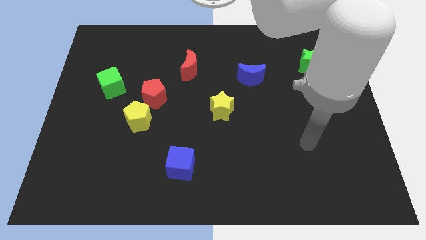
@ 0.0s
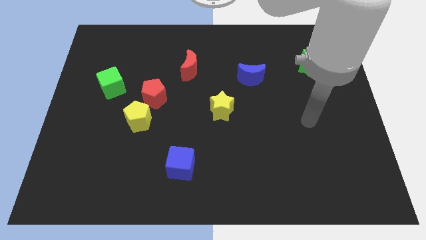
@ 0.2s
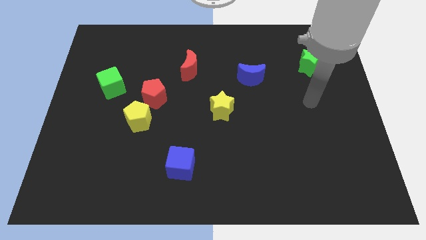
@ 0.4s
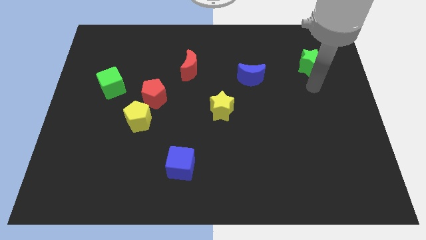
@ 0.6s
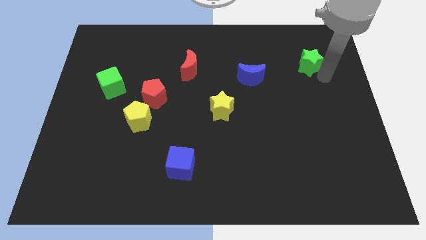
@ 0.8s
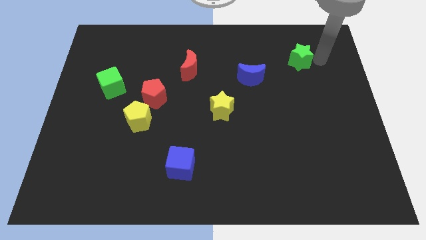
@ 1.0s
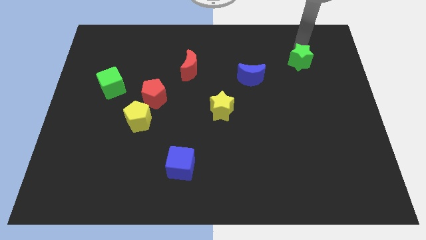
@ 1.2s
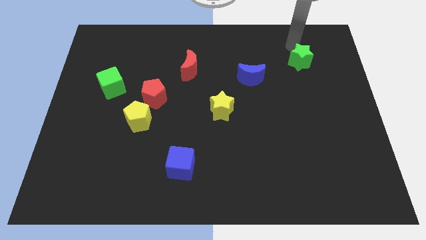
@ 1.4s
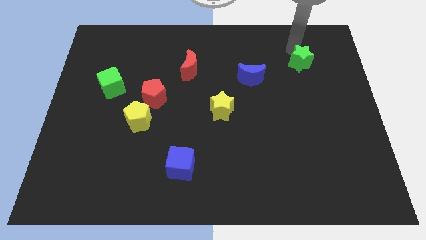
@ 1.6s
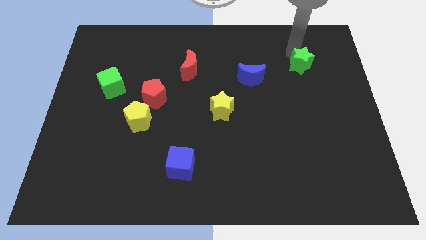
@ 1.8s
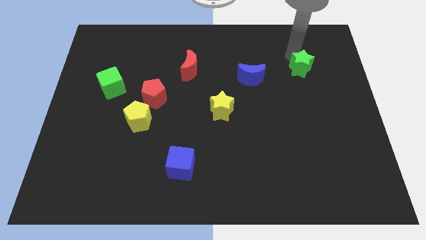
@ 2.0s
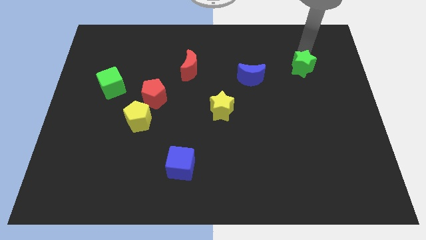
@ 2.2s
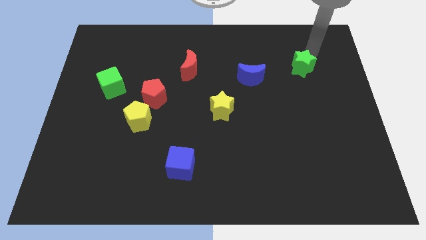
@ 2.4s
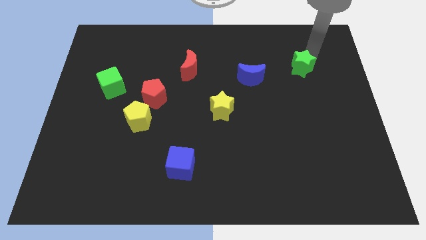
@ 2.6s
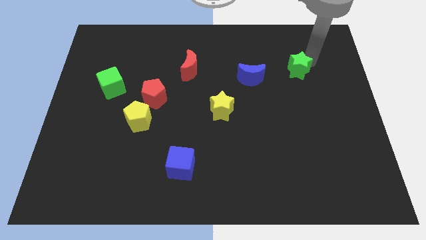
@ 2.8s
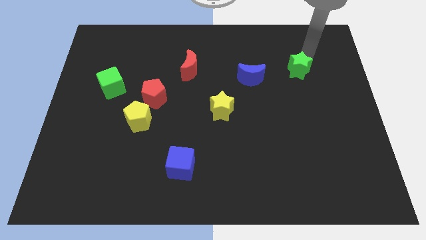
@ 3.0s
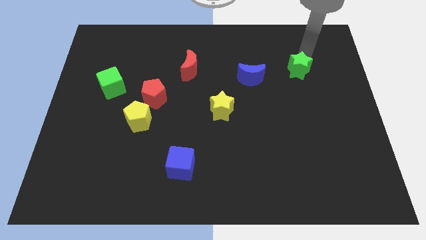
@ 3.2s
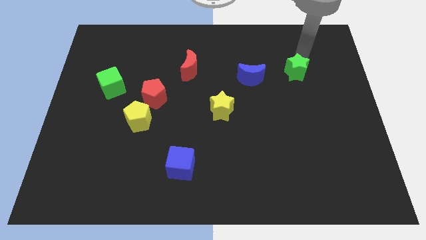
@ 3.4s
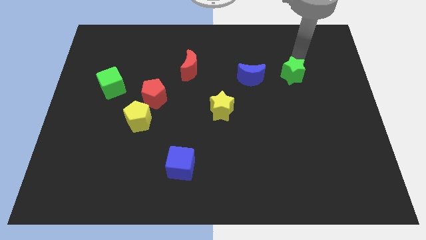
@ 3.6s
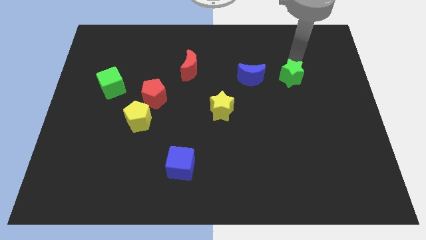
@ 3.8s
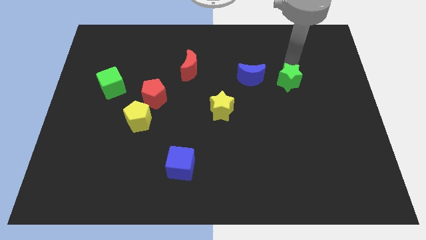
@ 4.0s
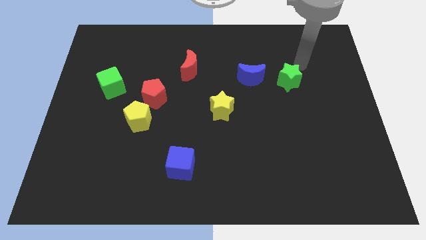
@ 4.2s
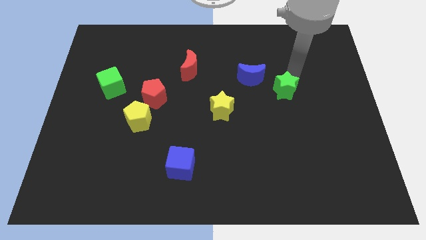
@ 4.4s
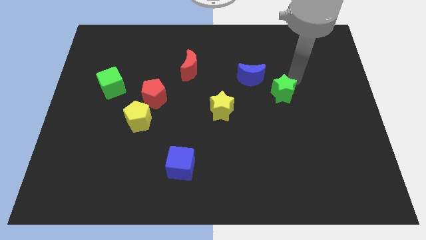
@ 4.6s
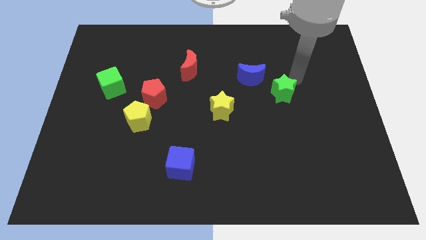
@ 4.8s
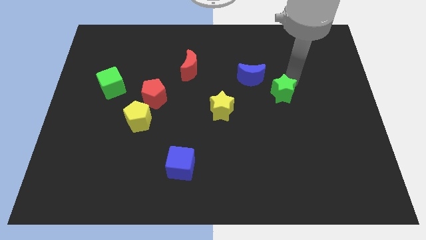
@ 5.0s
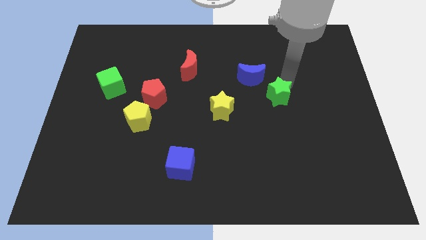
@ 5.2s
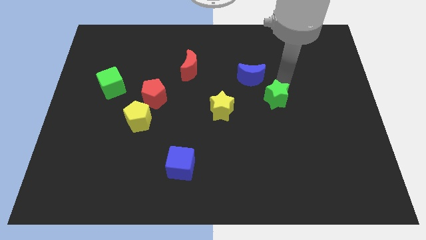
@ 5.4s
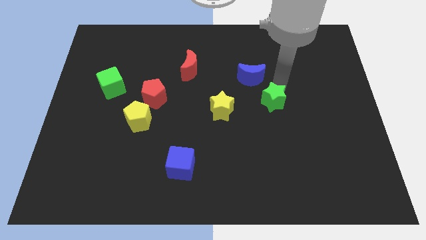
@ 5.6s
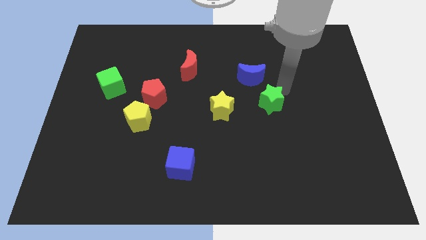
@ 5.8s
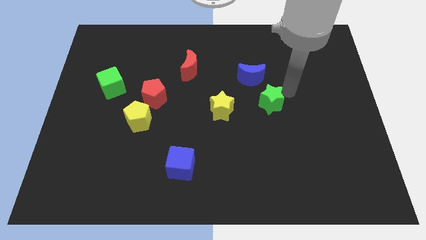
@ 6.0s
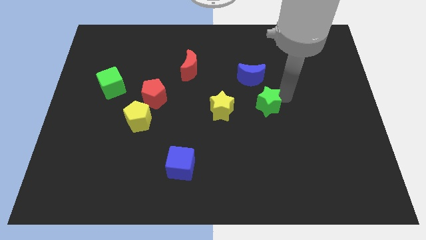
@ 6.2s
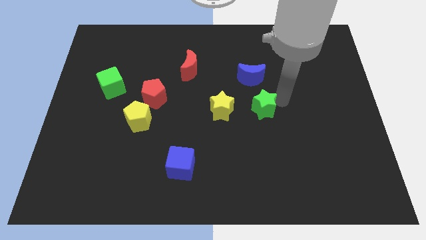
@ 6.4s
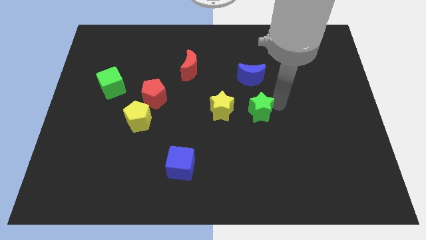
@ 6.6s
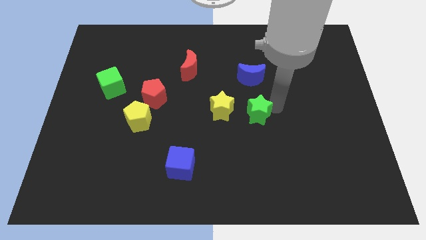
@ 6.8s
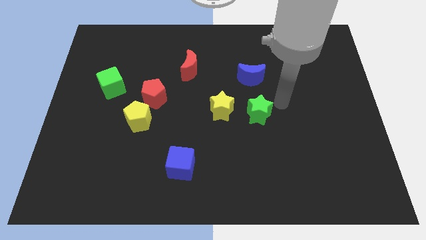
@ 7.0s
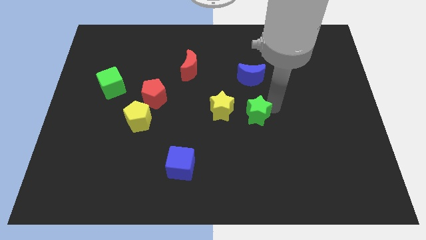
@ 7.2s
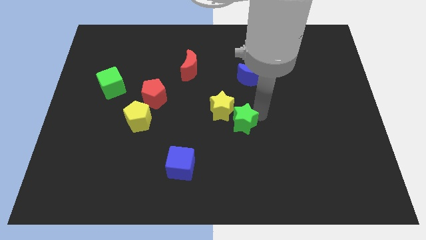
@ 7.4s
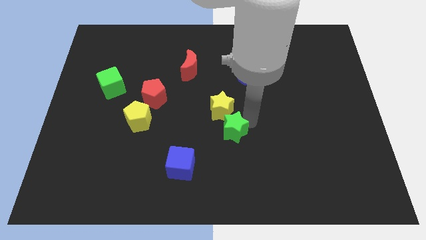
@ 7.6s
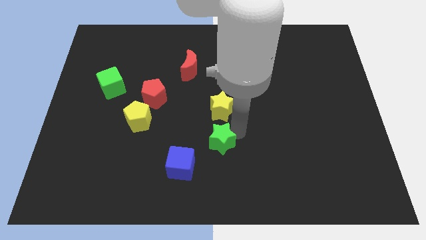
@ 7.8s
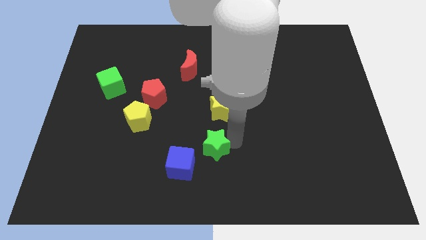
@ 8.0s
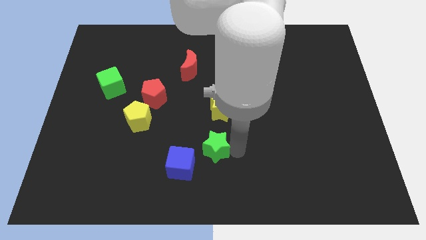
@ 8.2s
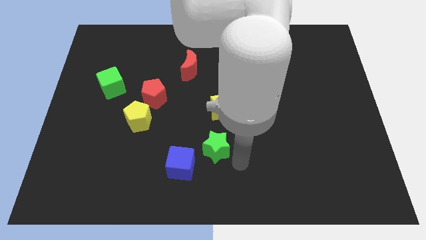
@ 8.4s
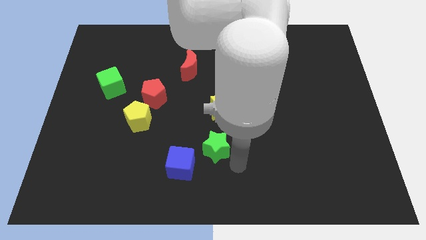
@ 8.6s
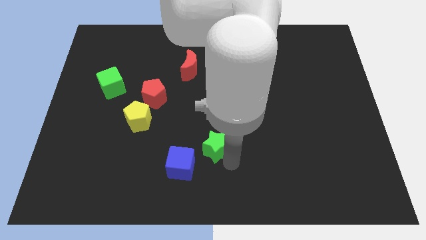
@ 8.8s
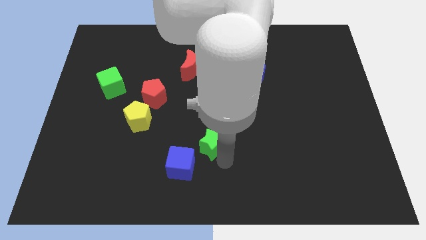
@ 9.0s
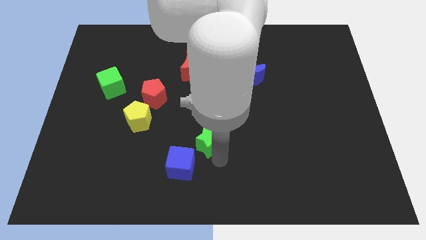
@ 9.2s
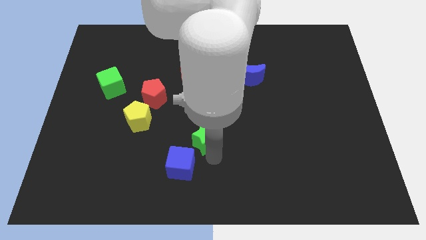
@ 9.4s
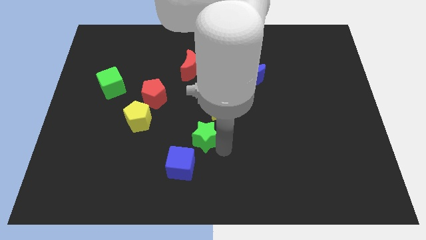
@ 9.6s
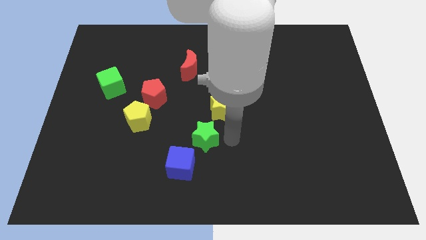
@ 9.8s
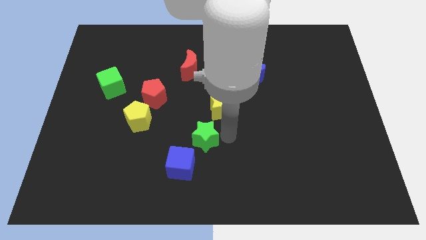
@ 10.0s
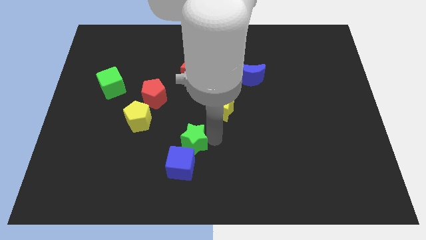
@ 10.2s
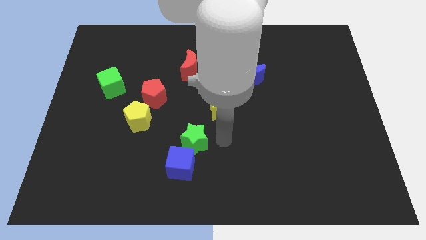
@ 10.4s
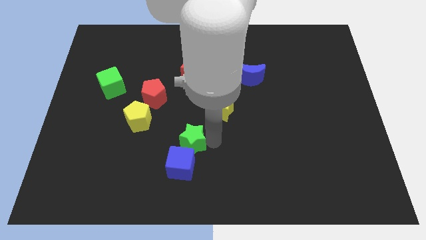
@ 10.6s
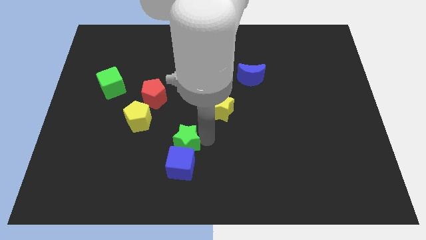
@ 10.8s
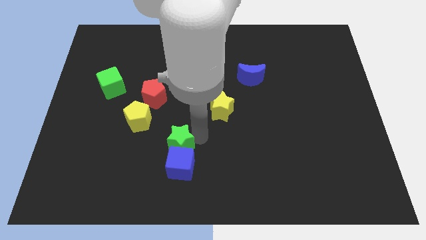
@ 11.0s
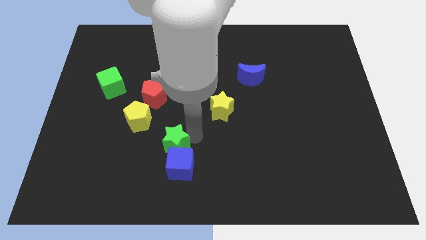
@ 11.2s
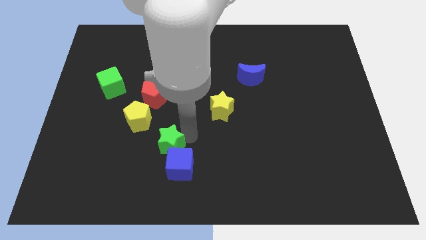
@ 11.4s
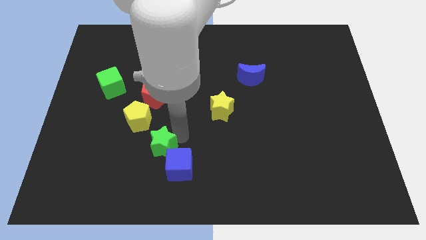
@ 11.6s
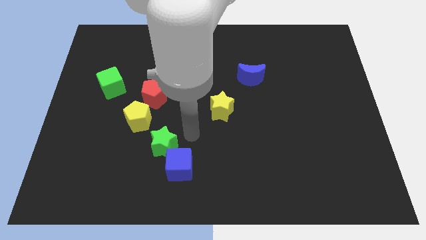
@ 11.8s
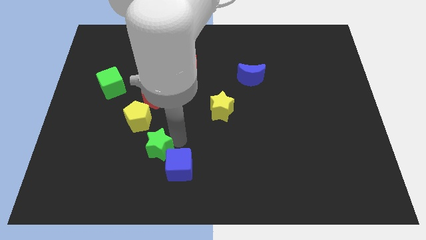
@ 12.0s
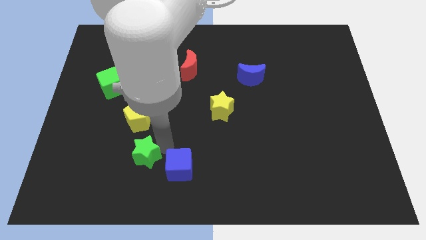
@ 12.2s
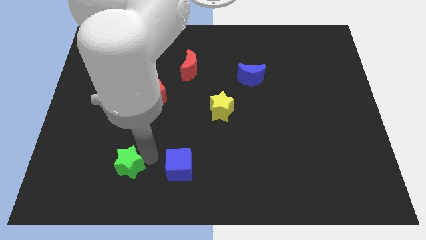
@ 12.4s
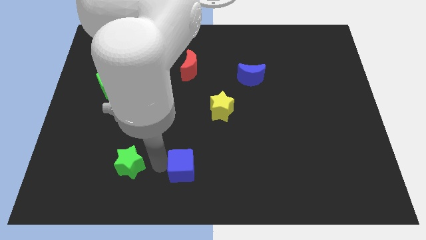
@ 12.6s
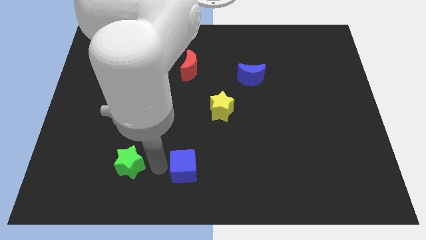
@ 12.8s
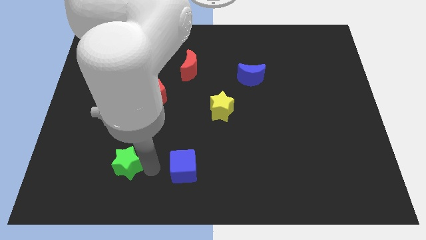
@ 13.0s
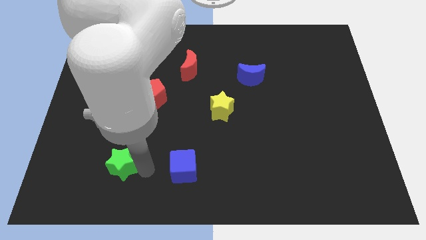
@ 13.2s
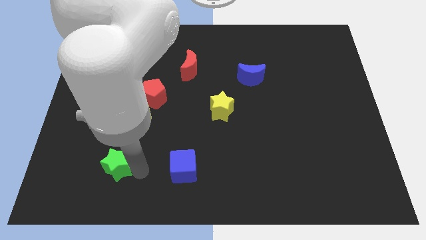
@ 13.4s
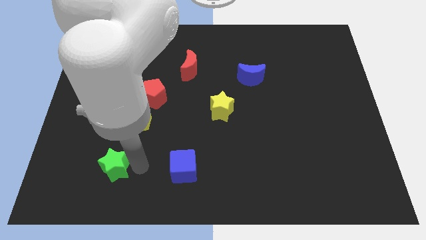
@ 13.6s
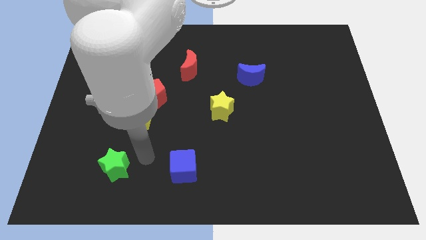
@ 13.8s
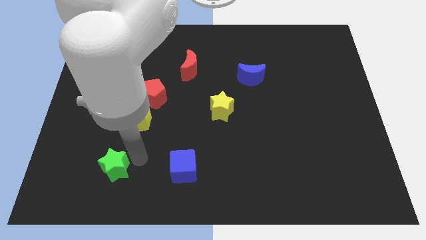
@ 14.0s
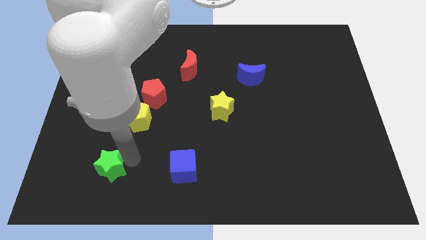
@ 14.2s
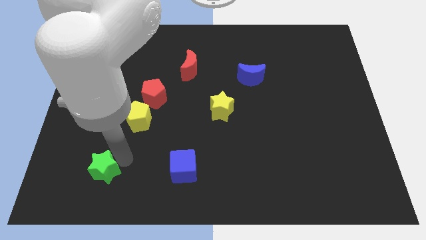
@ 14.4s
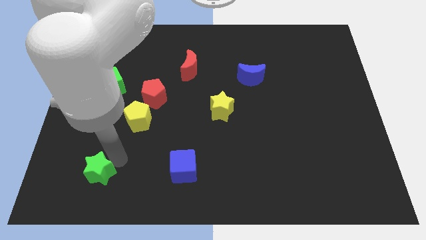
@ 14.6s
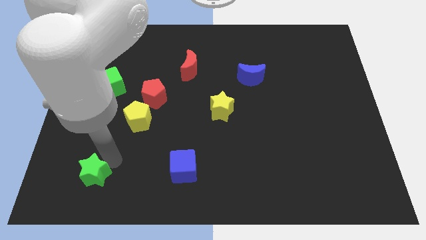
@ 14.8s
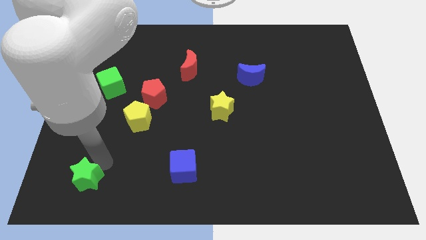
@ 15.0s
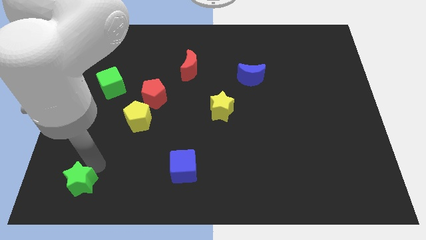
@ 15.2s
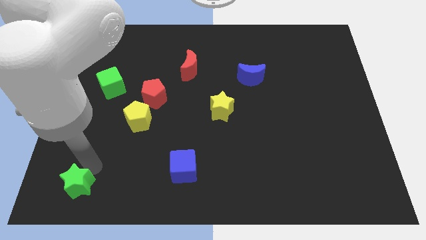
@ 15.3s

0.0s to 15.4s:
push the green star to the bottom left
